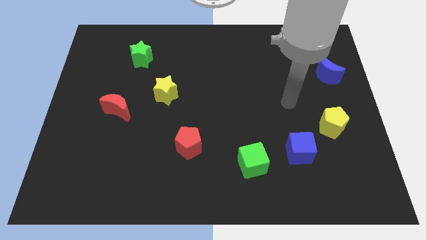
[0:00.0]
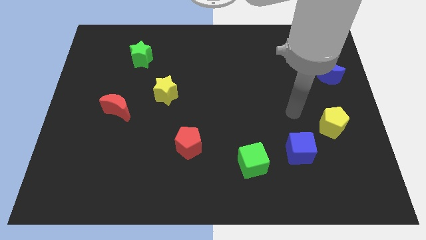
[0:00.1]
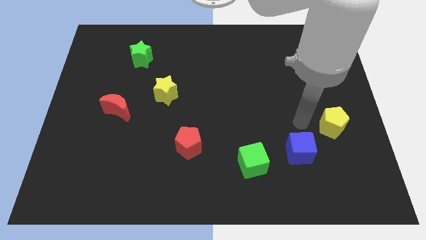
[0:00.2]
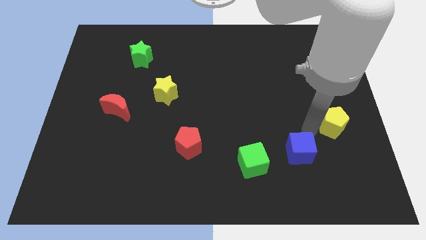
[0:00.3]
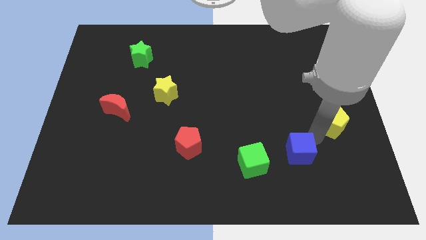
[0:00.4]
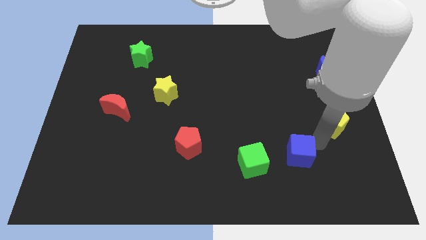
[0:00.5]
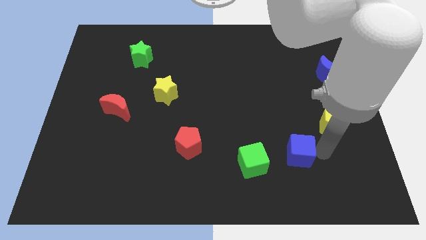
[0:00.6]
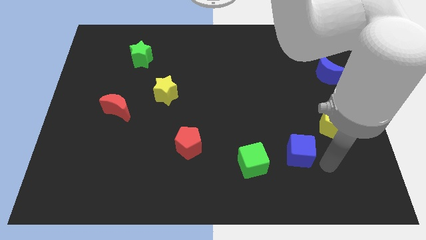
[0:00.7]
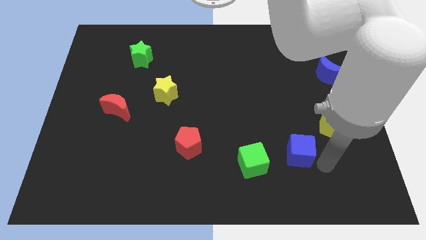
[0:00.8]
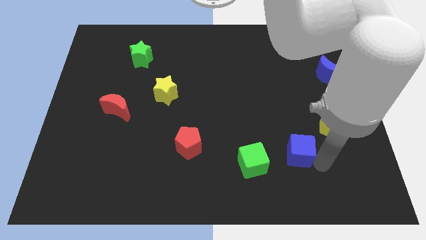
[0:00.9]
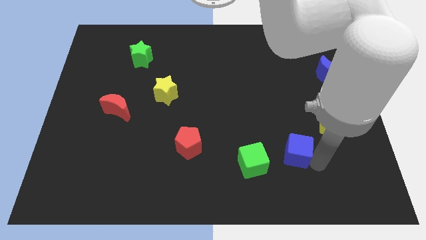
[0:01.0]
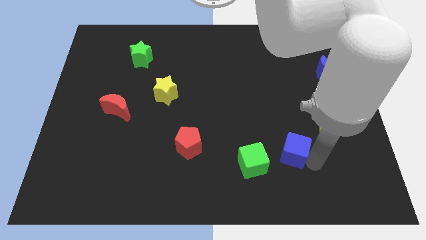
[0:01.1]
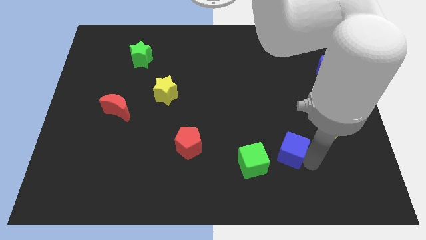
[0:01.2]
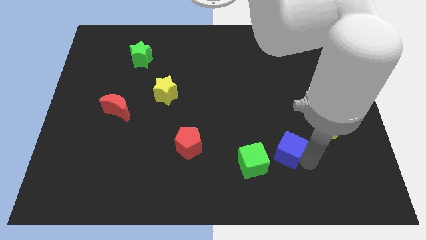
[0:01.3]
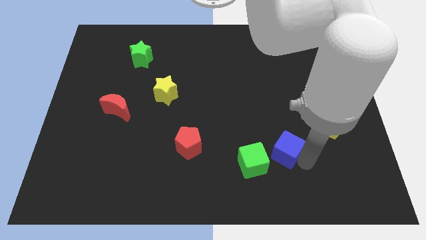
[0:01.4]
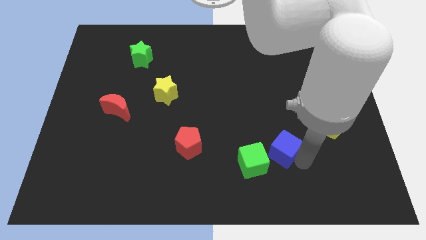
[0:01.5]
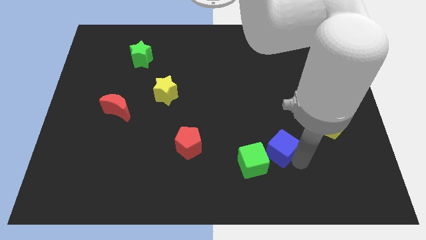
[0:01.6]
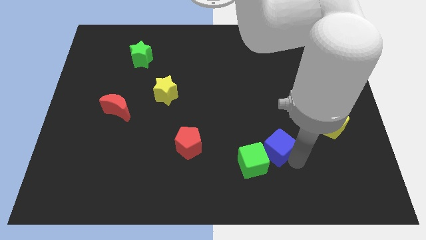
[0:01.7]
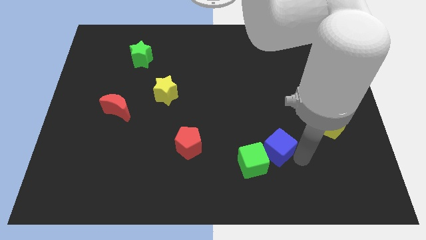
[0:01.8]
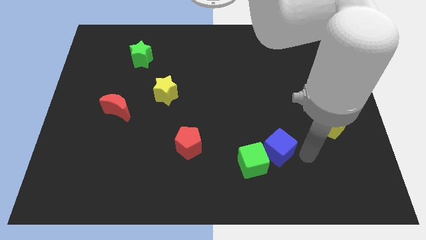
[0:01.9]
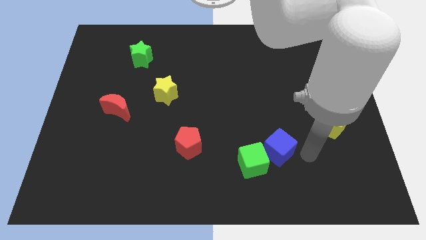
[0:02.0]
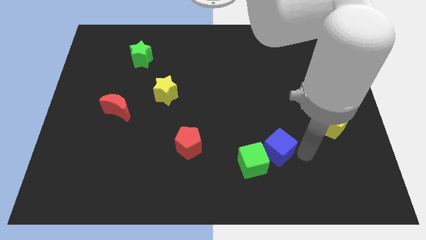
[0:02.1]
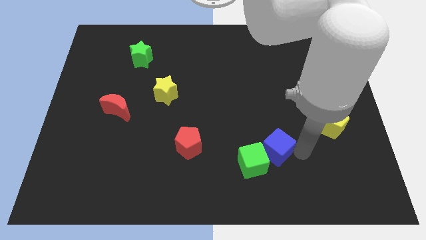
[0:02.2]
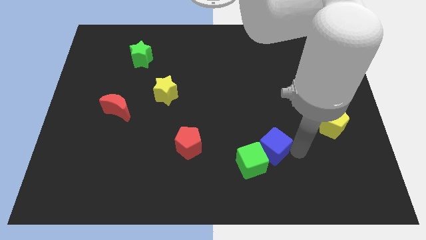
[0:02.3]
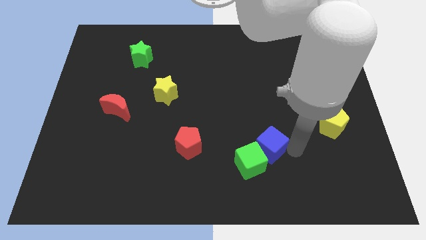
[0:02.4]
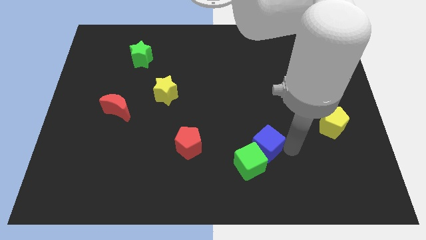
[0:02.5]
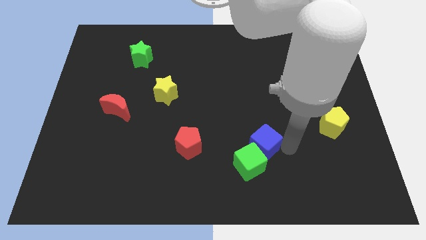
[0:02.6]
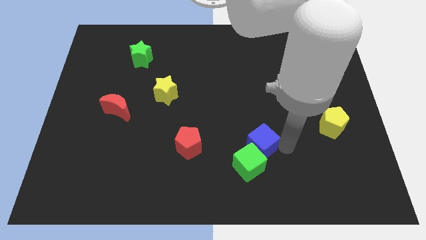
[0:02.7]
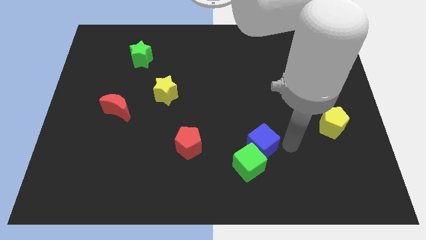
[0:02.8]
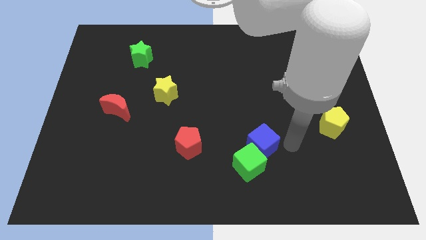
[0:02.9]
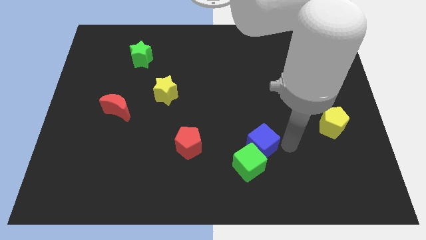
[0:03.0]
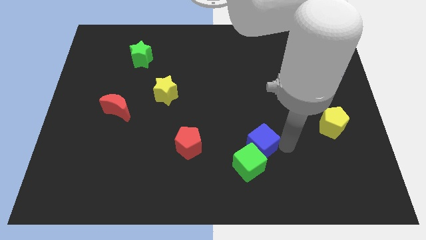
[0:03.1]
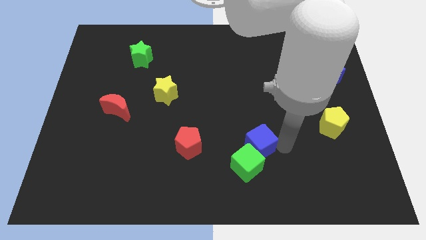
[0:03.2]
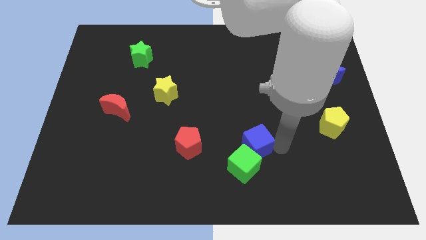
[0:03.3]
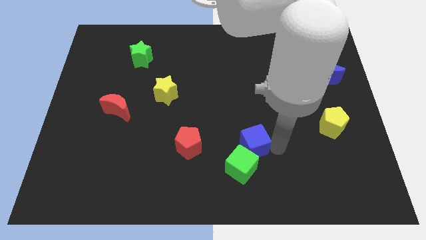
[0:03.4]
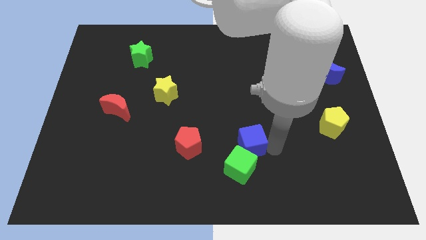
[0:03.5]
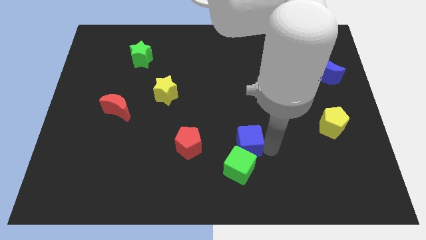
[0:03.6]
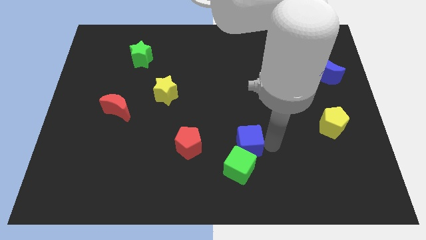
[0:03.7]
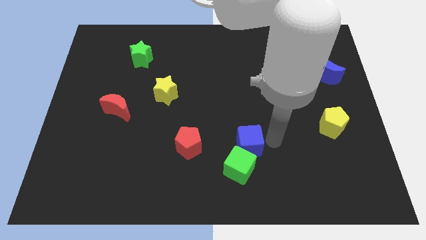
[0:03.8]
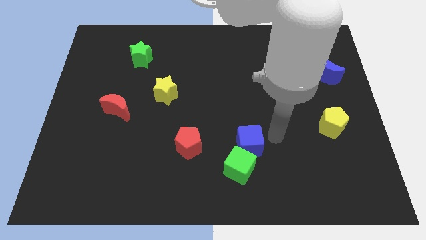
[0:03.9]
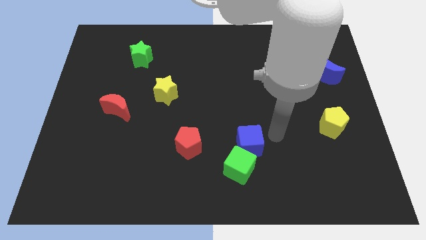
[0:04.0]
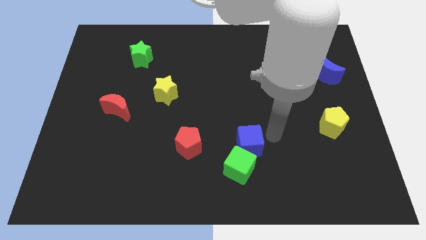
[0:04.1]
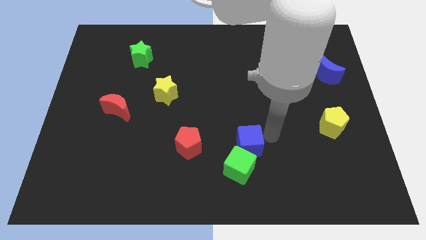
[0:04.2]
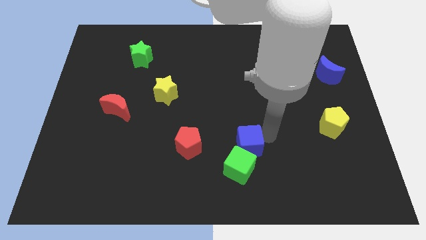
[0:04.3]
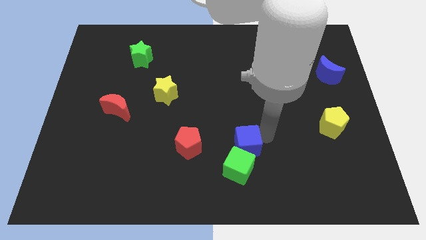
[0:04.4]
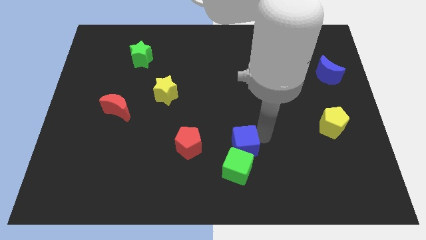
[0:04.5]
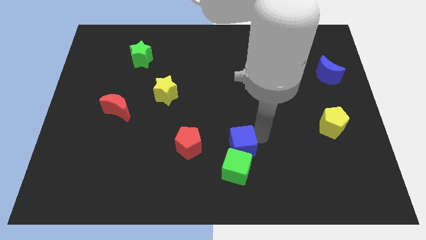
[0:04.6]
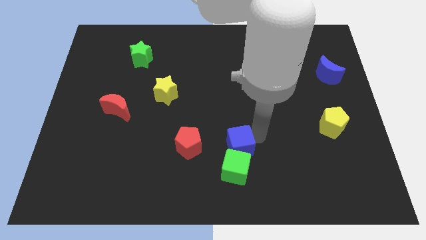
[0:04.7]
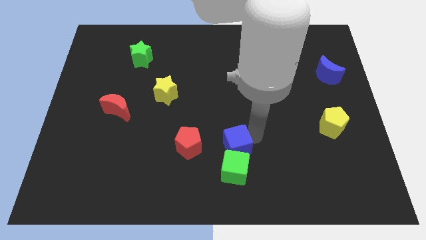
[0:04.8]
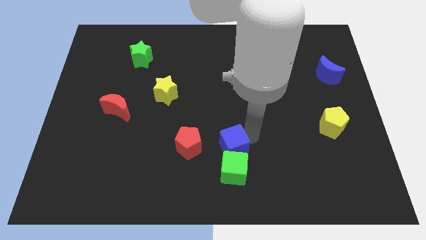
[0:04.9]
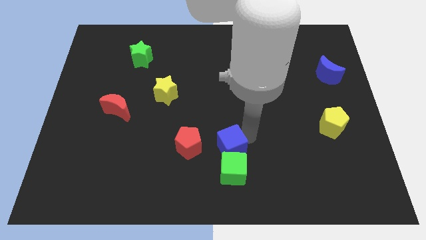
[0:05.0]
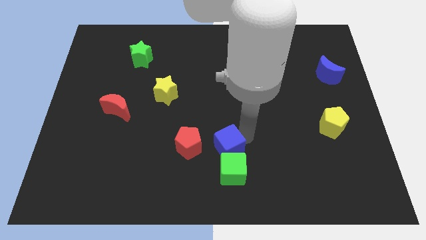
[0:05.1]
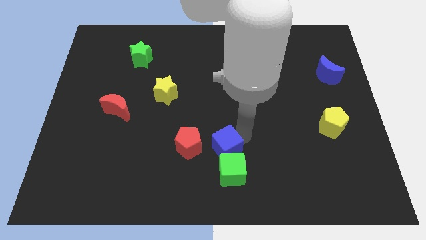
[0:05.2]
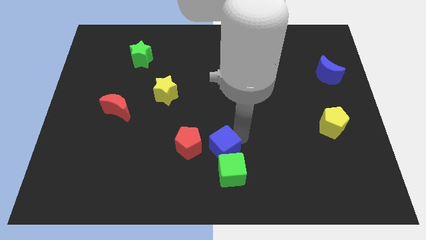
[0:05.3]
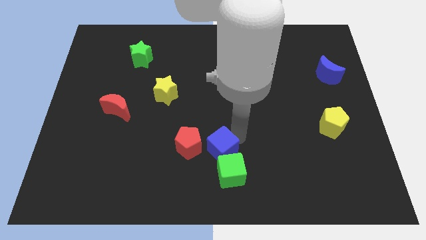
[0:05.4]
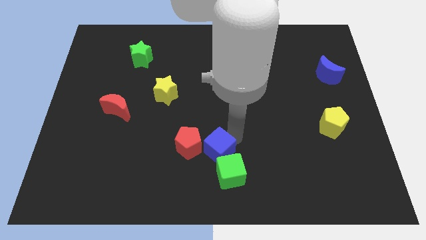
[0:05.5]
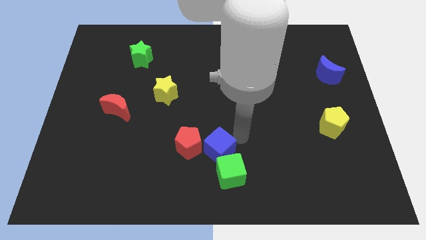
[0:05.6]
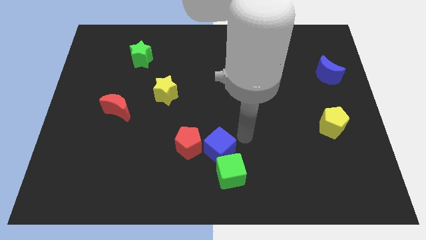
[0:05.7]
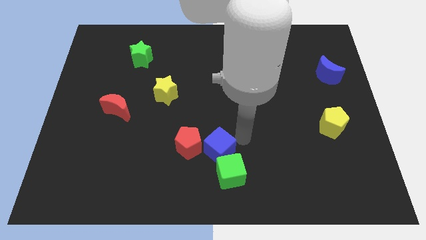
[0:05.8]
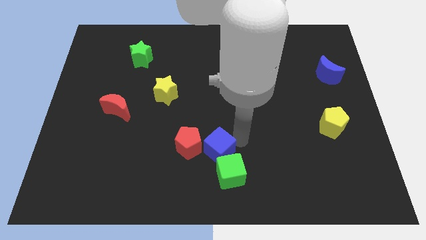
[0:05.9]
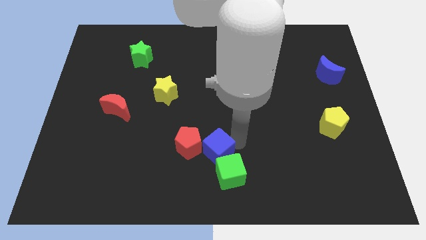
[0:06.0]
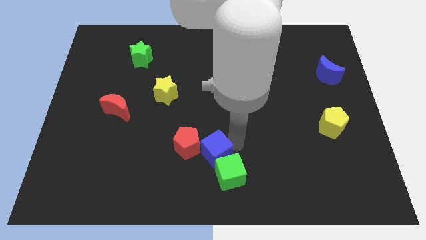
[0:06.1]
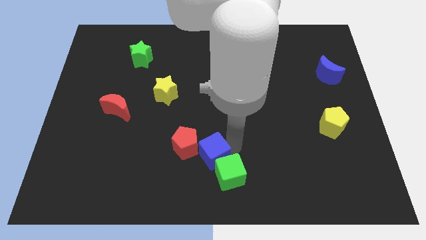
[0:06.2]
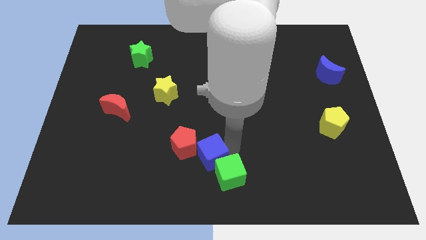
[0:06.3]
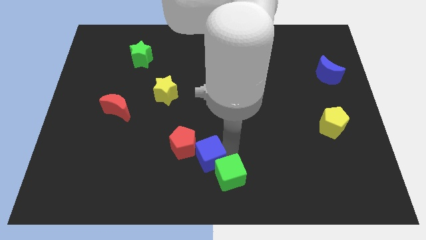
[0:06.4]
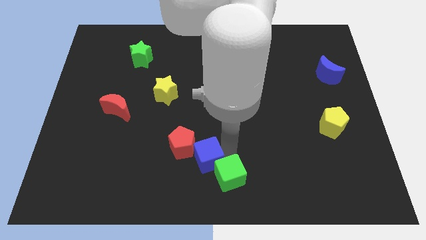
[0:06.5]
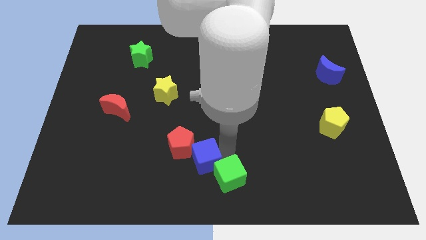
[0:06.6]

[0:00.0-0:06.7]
push the blue cube to the left

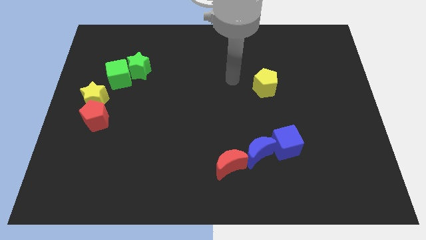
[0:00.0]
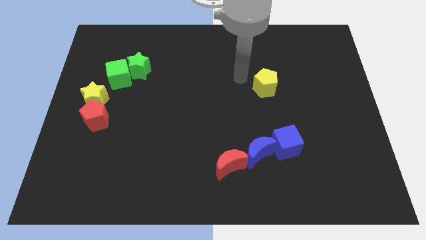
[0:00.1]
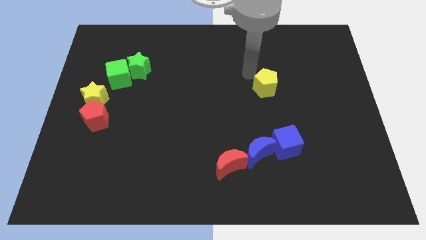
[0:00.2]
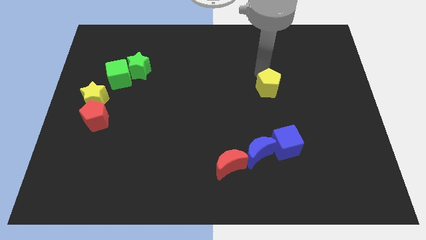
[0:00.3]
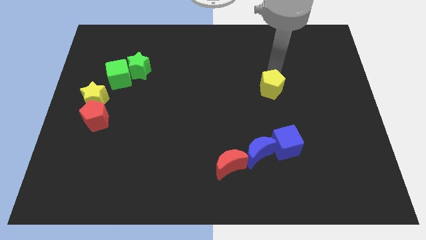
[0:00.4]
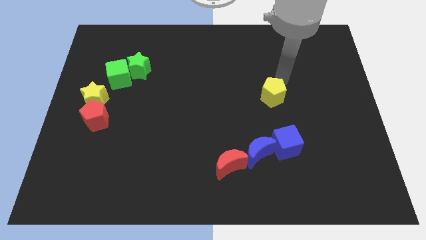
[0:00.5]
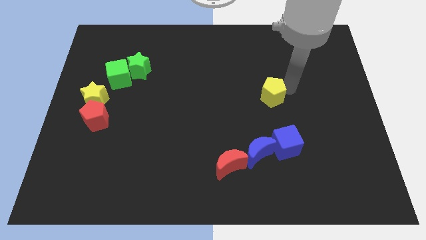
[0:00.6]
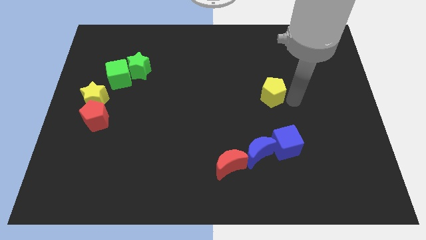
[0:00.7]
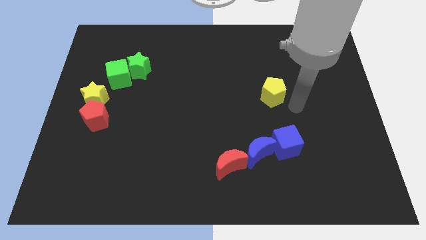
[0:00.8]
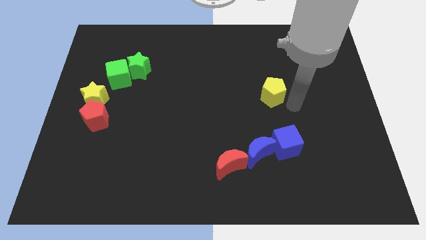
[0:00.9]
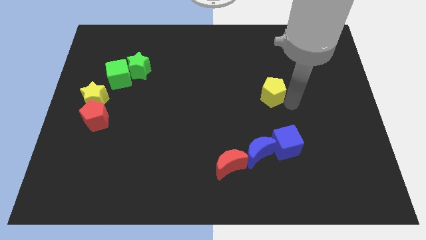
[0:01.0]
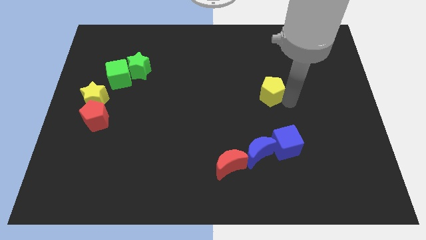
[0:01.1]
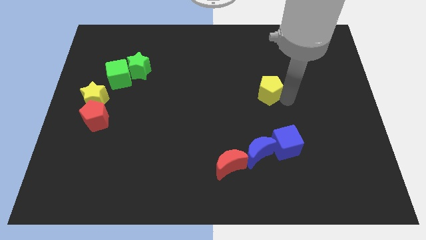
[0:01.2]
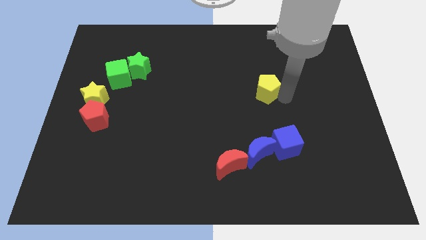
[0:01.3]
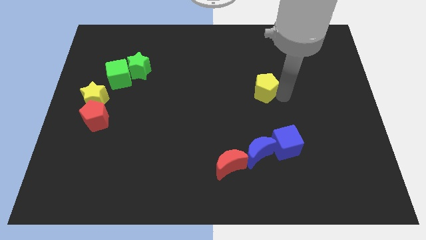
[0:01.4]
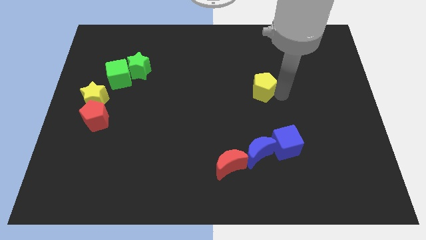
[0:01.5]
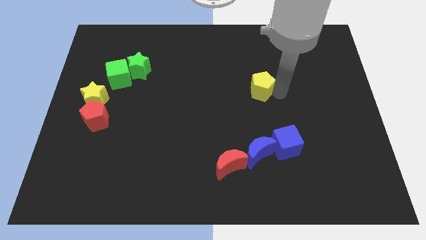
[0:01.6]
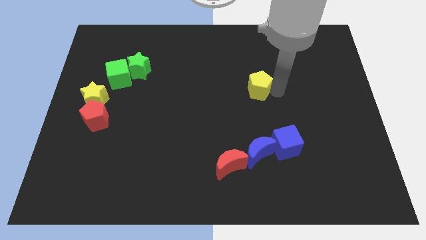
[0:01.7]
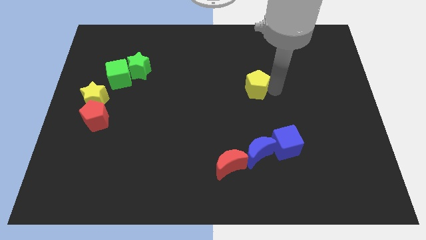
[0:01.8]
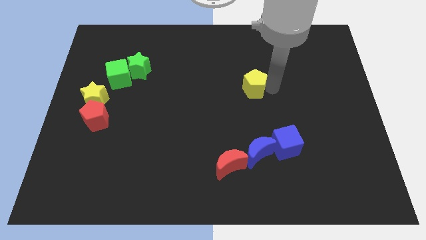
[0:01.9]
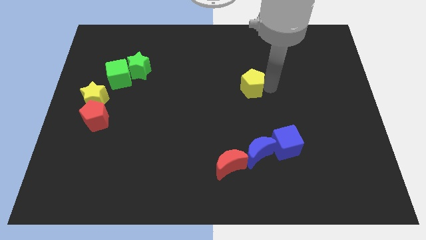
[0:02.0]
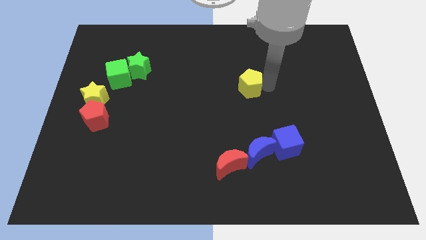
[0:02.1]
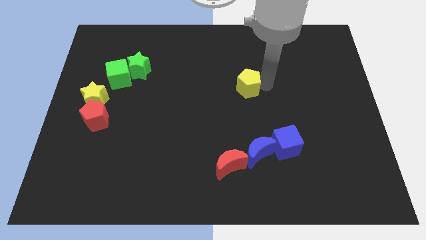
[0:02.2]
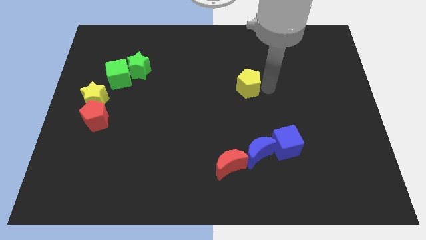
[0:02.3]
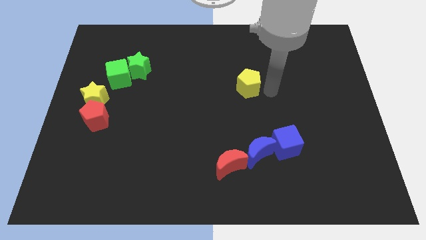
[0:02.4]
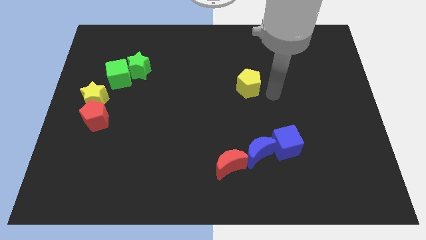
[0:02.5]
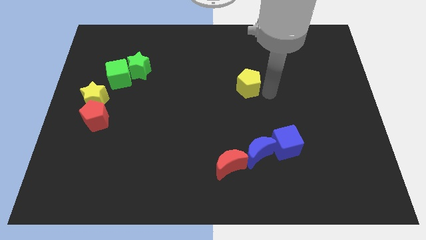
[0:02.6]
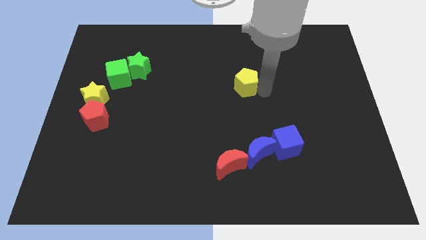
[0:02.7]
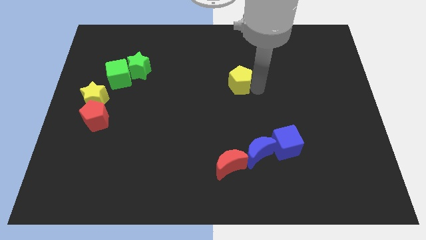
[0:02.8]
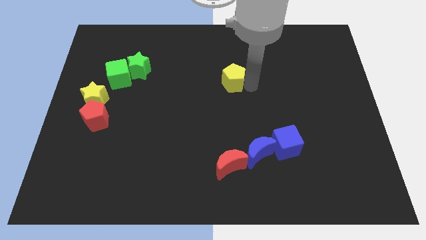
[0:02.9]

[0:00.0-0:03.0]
slightly move the yellow pentagon to the left
